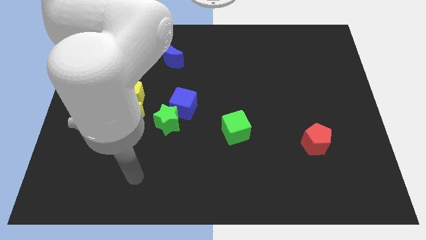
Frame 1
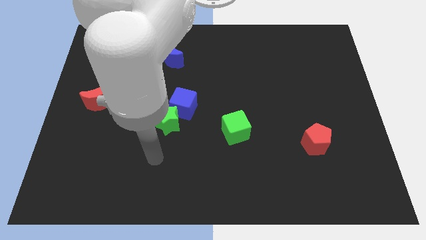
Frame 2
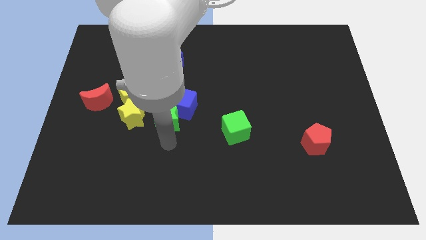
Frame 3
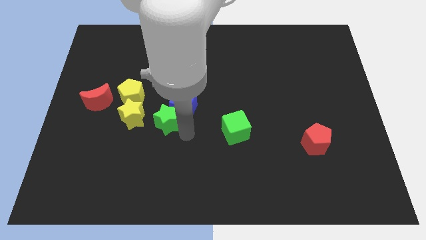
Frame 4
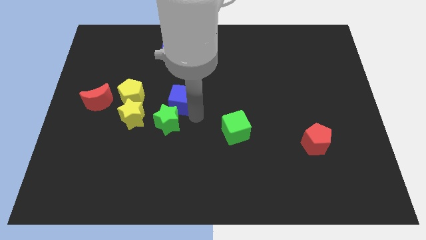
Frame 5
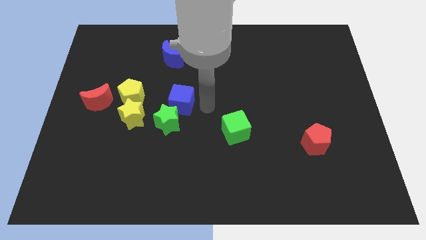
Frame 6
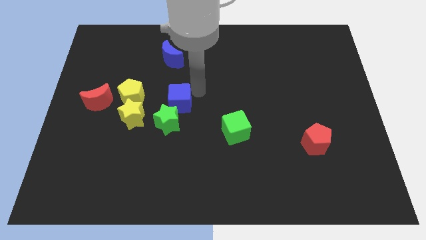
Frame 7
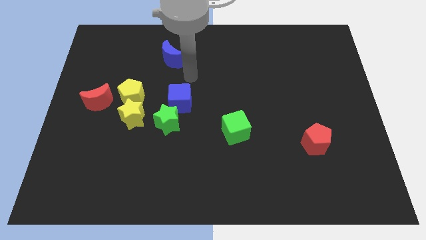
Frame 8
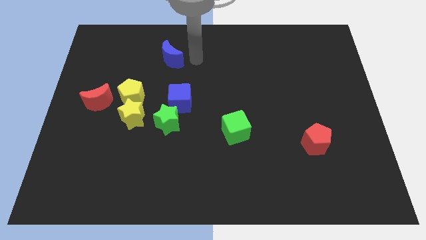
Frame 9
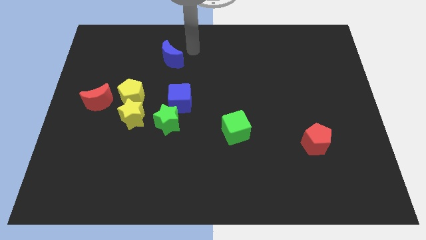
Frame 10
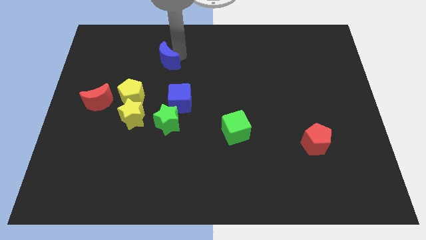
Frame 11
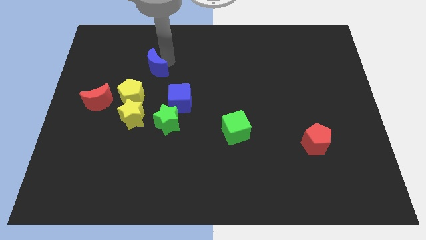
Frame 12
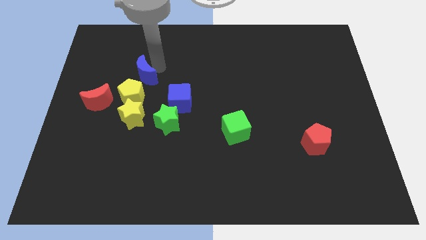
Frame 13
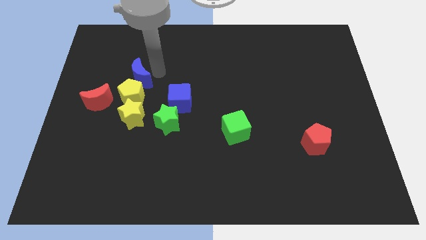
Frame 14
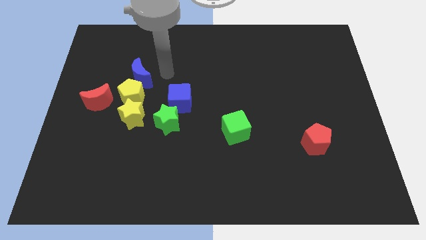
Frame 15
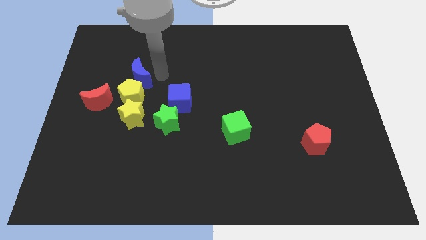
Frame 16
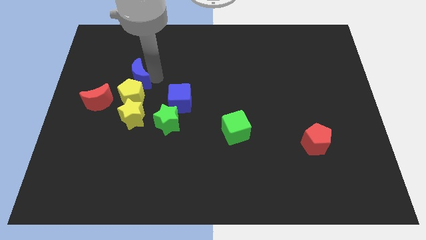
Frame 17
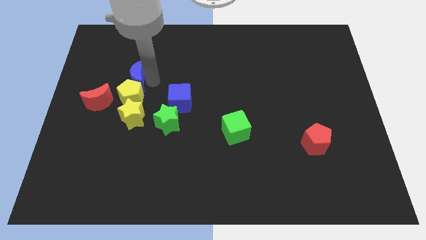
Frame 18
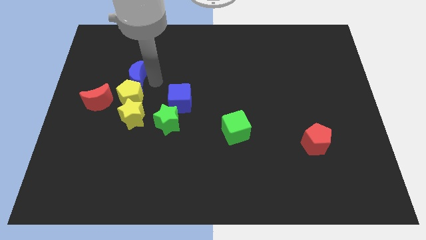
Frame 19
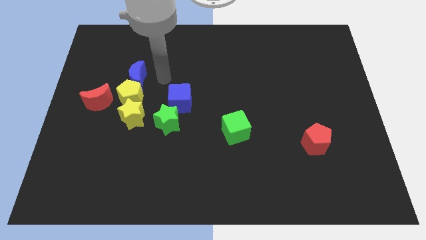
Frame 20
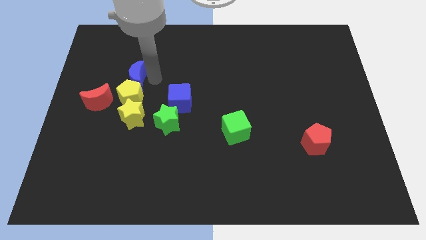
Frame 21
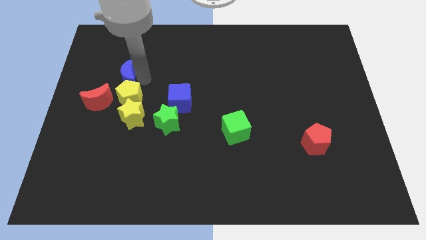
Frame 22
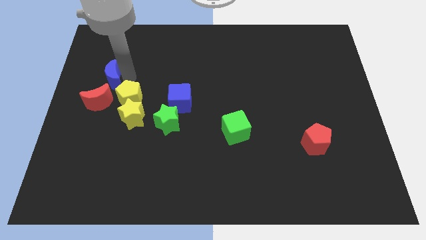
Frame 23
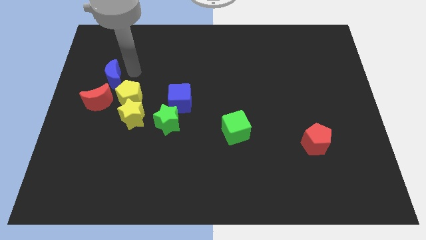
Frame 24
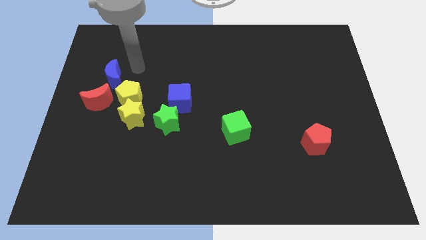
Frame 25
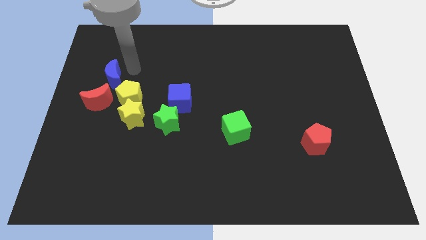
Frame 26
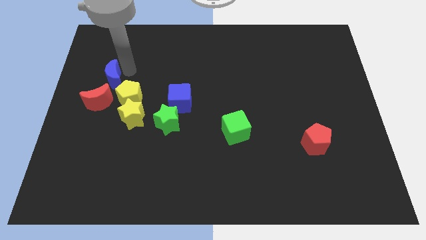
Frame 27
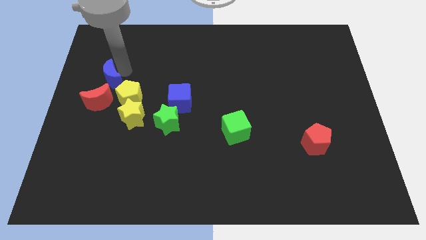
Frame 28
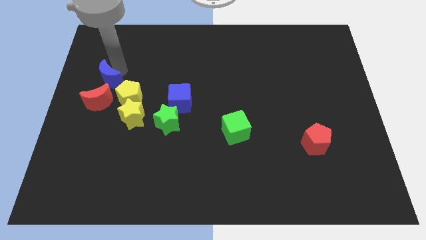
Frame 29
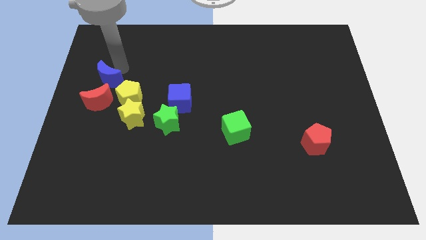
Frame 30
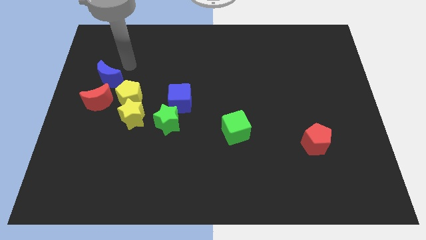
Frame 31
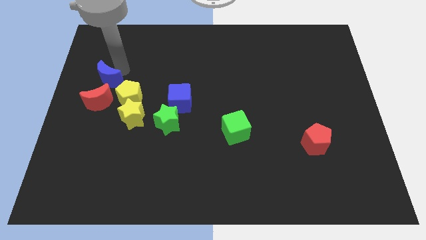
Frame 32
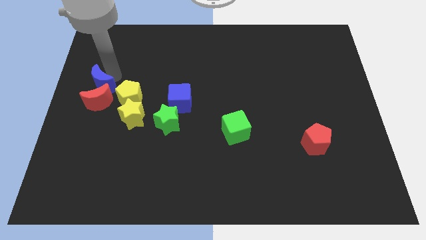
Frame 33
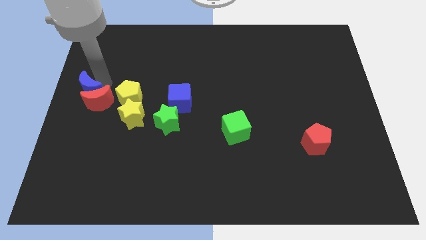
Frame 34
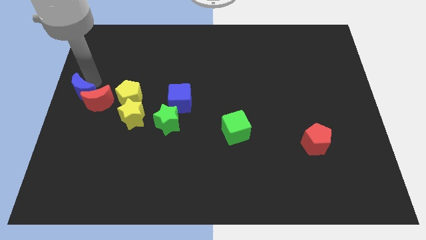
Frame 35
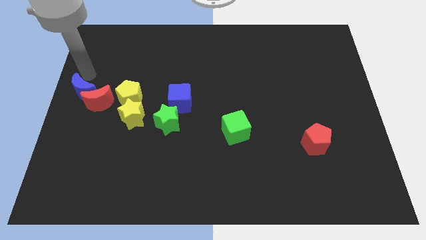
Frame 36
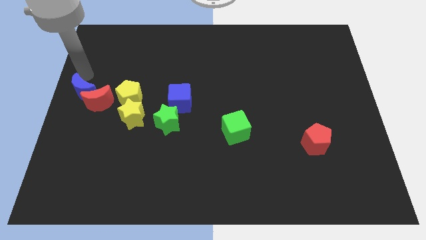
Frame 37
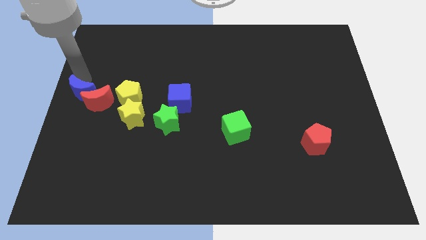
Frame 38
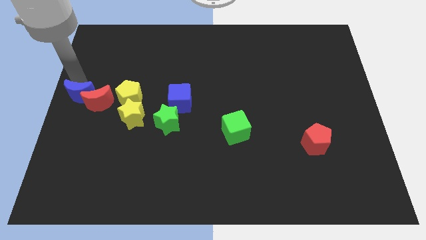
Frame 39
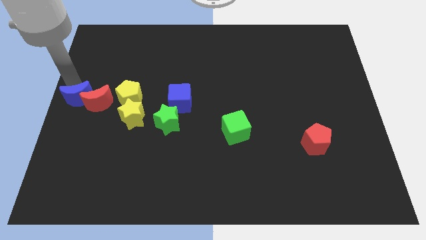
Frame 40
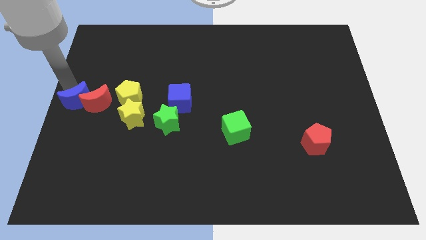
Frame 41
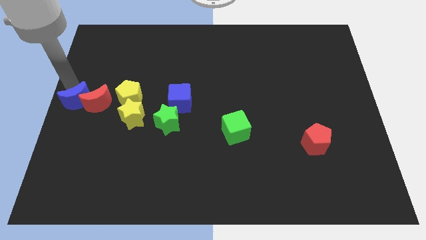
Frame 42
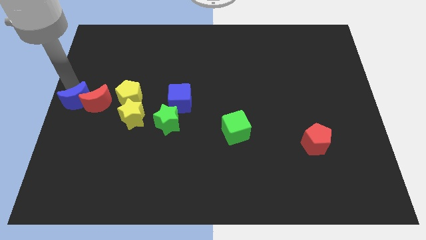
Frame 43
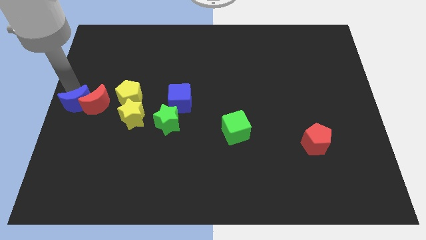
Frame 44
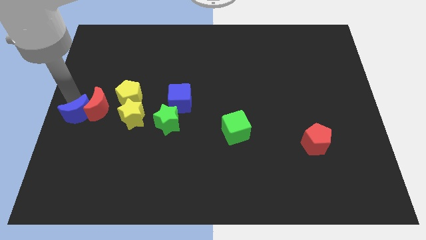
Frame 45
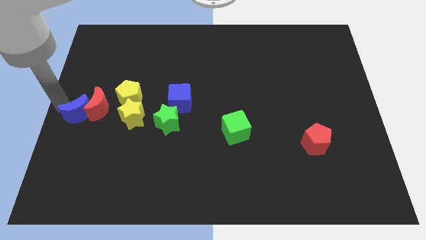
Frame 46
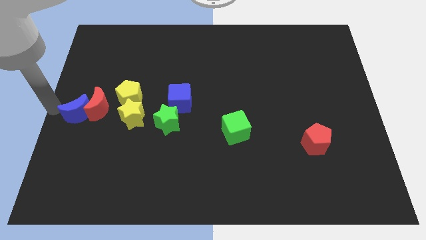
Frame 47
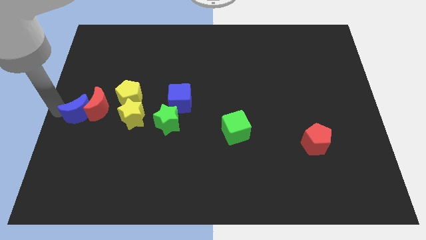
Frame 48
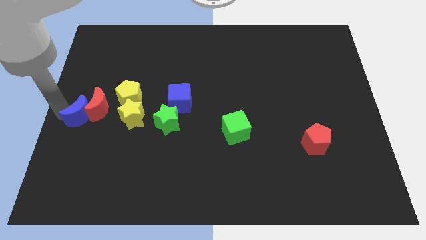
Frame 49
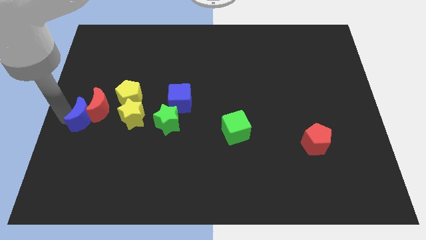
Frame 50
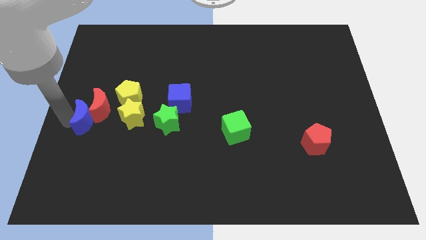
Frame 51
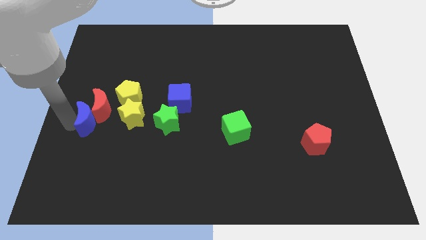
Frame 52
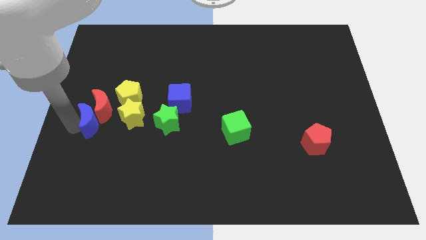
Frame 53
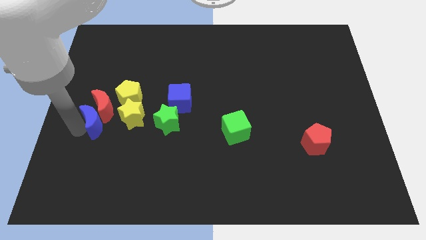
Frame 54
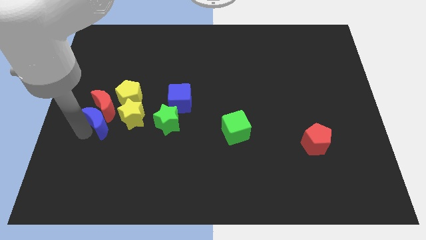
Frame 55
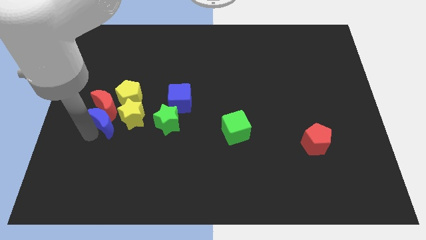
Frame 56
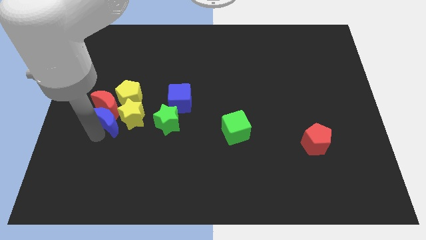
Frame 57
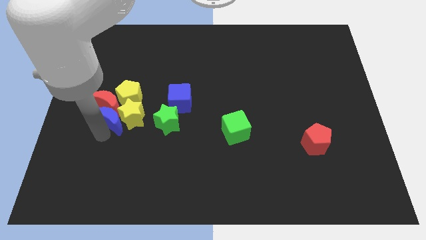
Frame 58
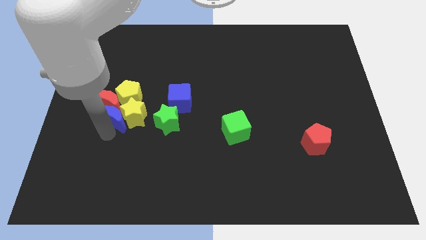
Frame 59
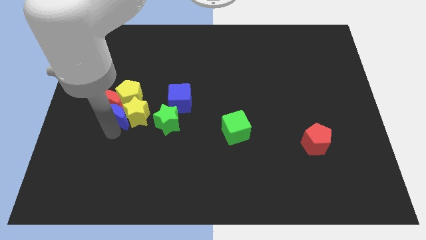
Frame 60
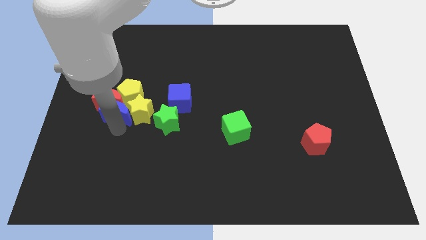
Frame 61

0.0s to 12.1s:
slide the blue moon to the left side of the blue cube

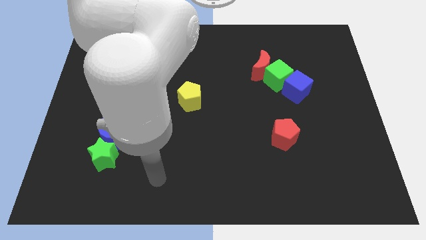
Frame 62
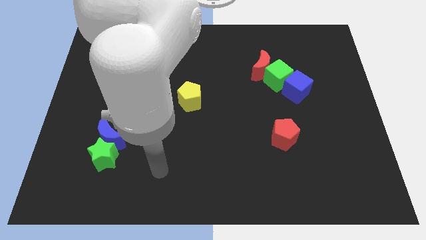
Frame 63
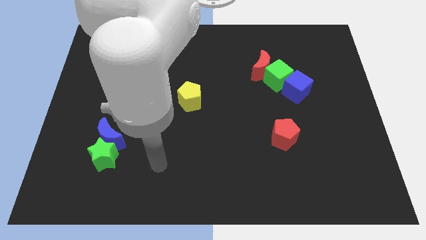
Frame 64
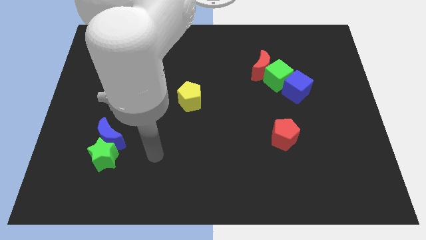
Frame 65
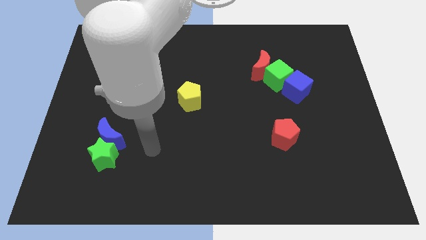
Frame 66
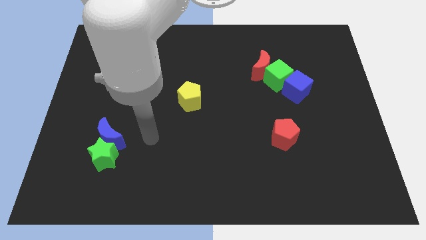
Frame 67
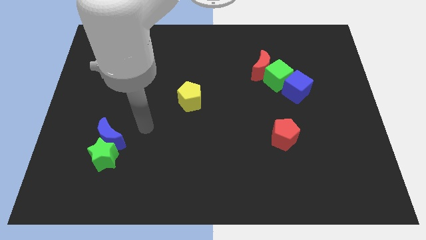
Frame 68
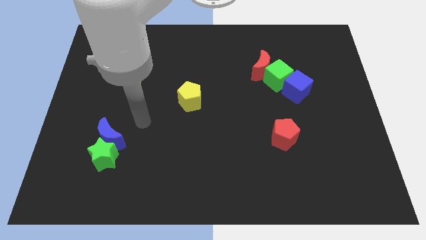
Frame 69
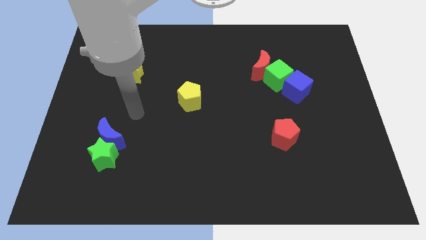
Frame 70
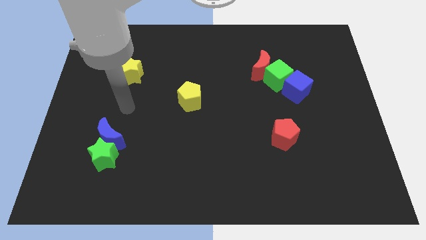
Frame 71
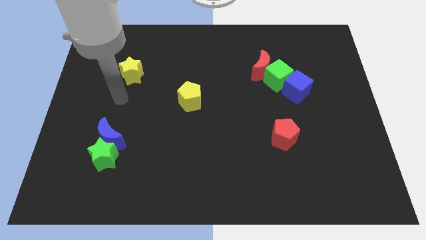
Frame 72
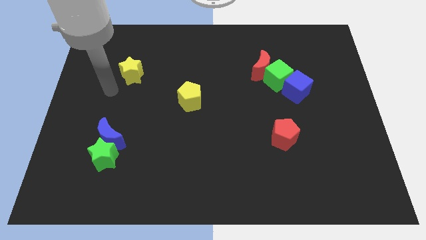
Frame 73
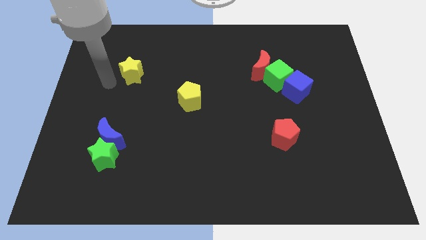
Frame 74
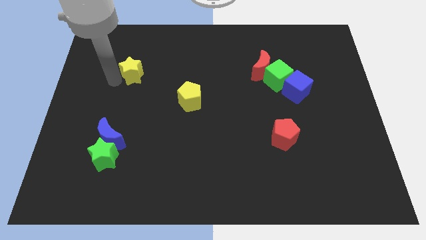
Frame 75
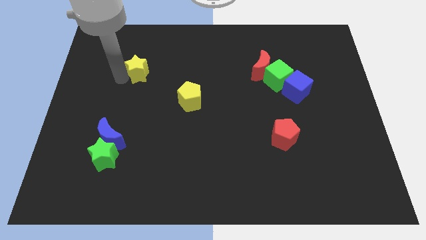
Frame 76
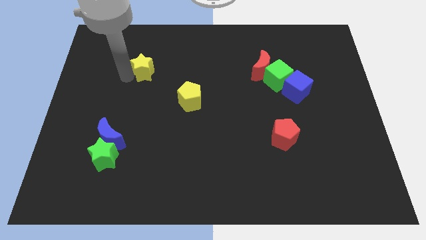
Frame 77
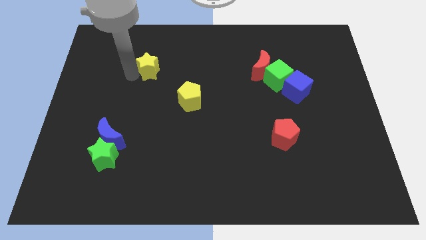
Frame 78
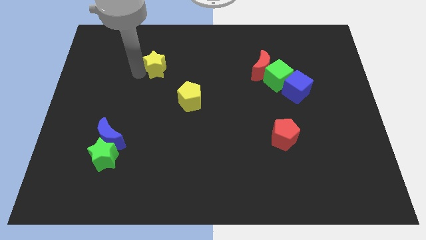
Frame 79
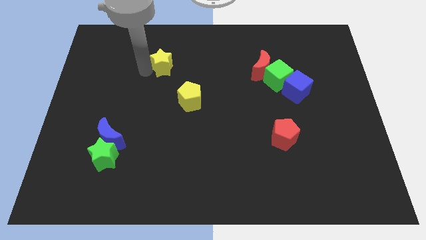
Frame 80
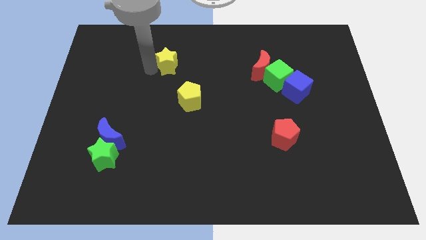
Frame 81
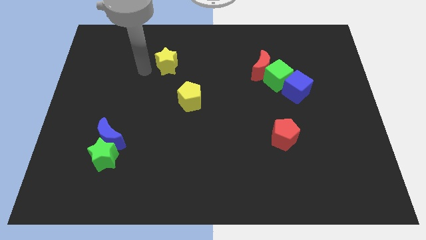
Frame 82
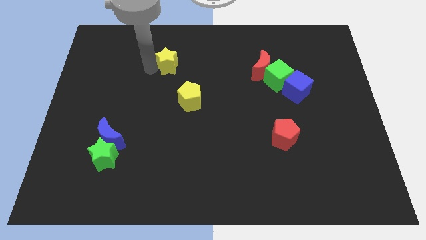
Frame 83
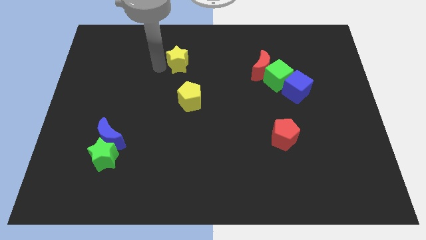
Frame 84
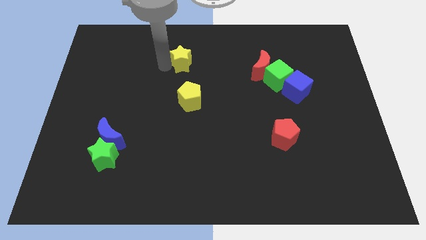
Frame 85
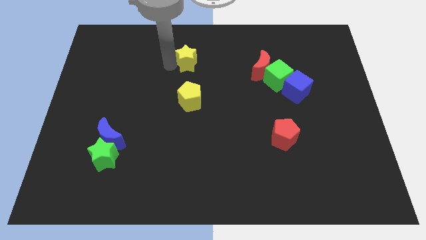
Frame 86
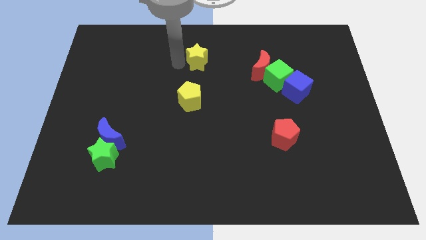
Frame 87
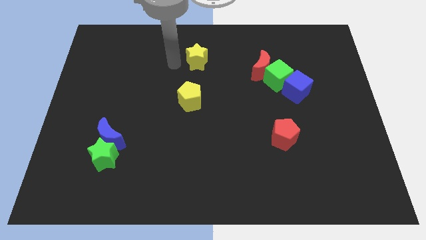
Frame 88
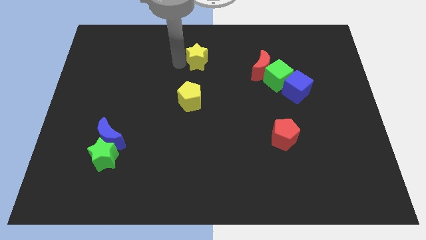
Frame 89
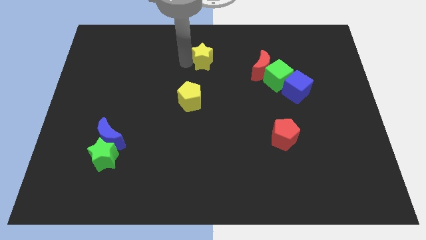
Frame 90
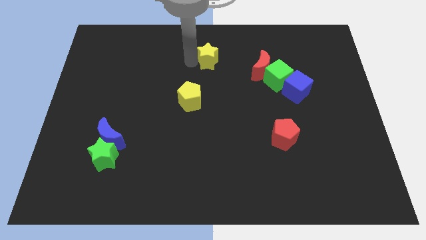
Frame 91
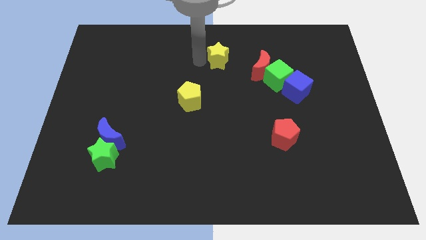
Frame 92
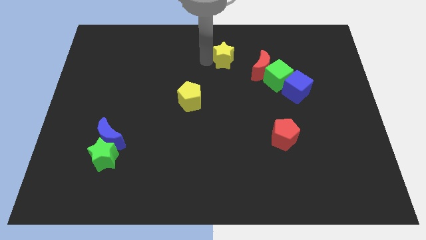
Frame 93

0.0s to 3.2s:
push the yellow star diagonally up and to the left of the red moon
